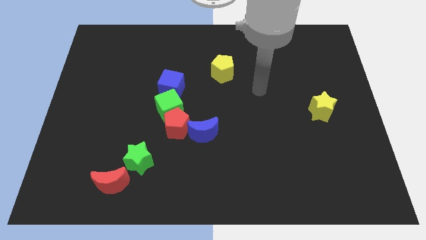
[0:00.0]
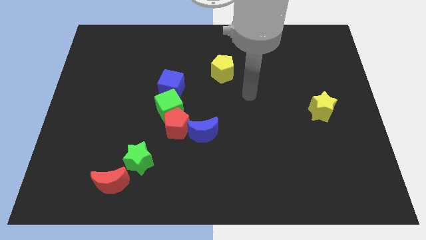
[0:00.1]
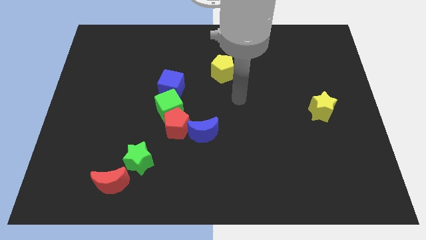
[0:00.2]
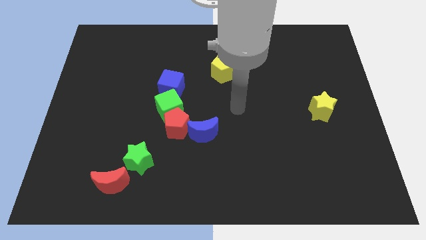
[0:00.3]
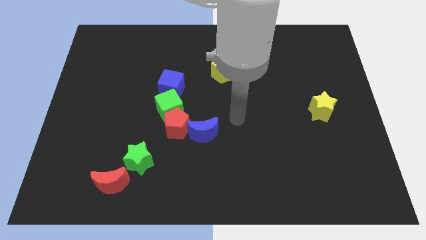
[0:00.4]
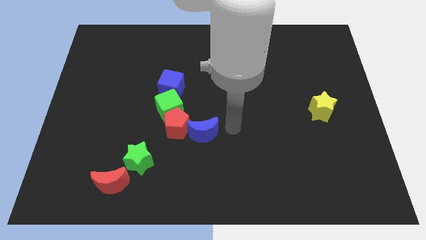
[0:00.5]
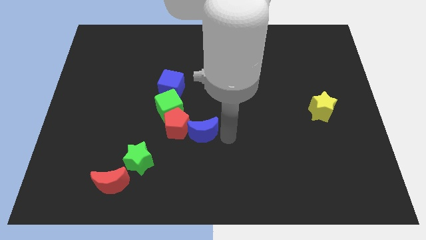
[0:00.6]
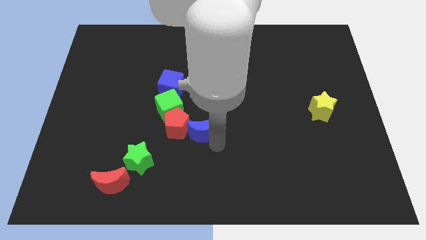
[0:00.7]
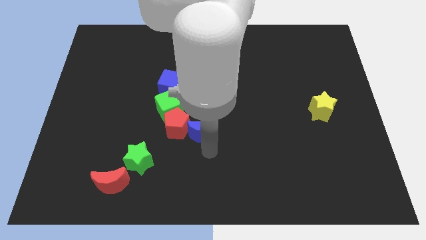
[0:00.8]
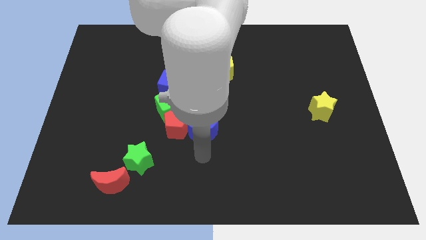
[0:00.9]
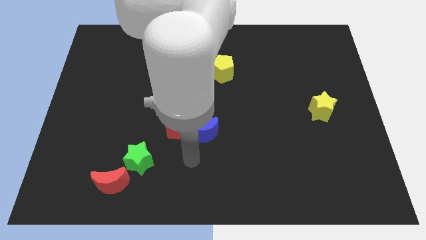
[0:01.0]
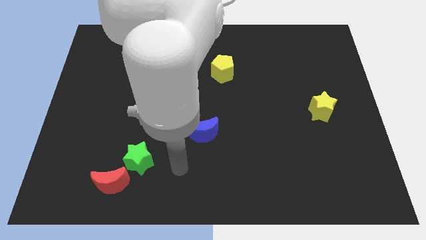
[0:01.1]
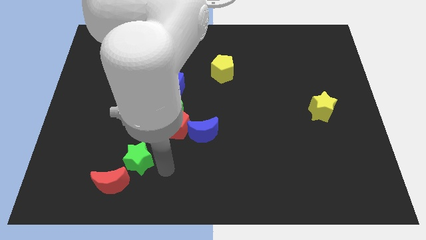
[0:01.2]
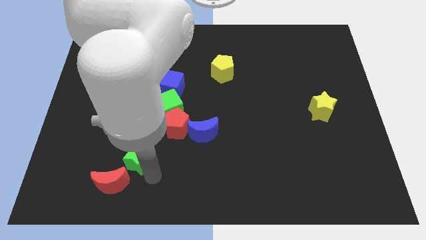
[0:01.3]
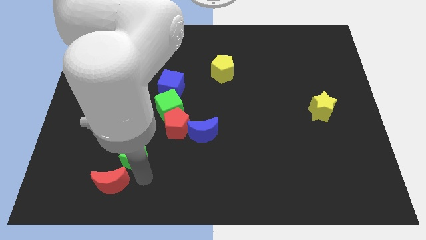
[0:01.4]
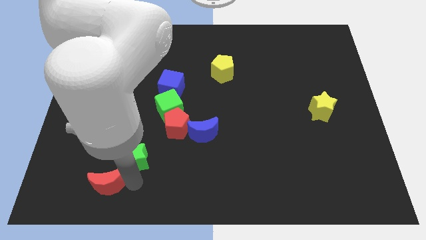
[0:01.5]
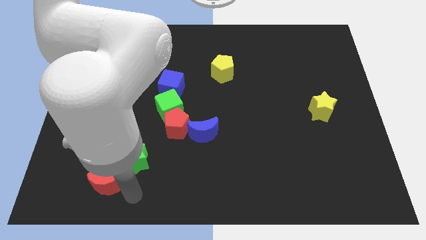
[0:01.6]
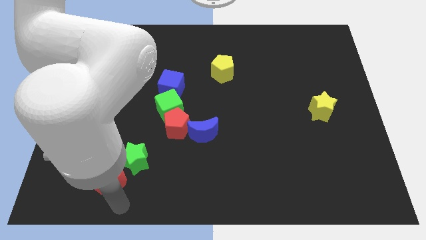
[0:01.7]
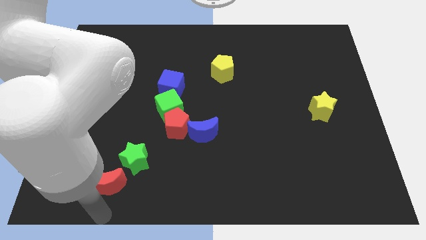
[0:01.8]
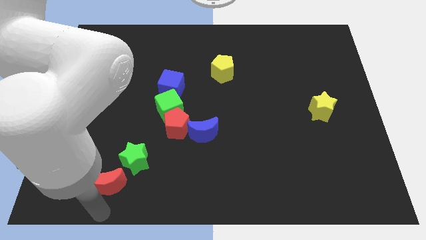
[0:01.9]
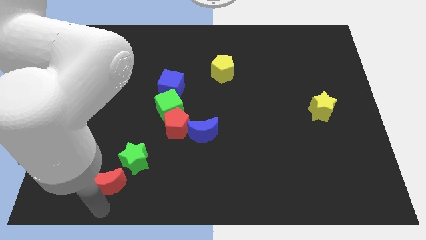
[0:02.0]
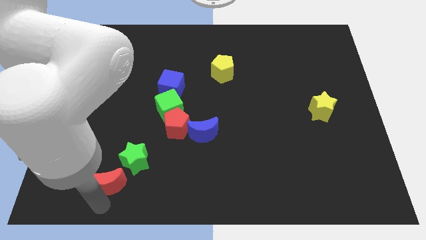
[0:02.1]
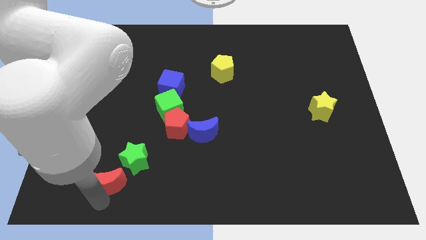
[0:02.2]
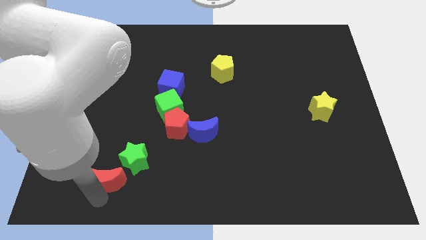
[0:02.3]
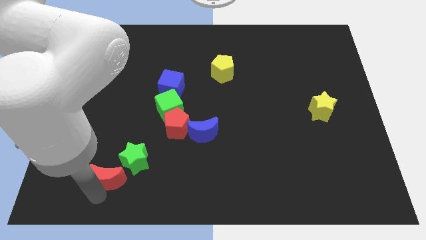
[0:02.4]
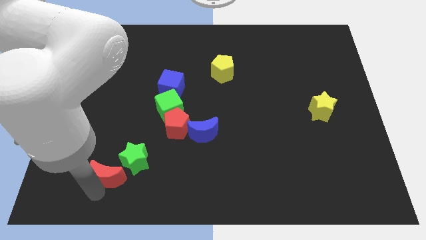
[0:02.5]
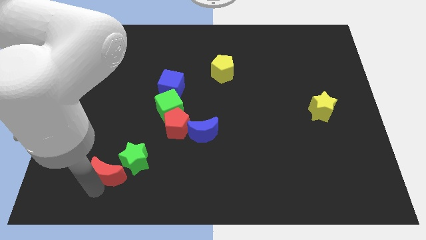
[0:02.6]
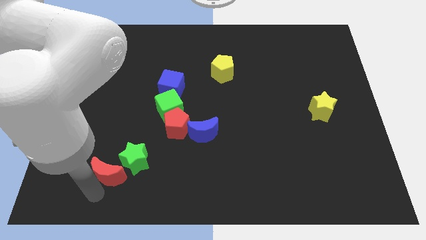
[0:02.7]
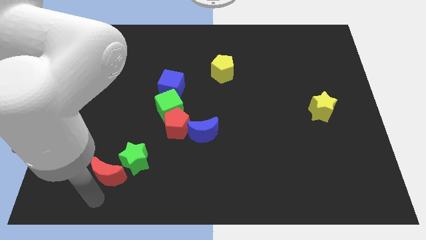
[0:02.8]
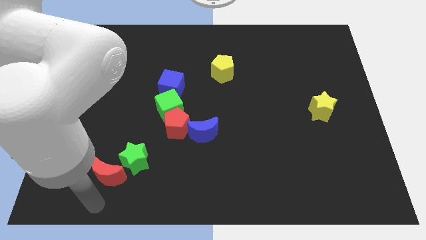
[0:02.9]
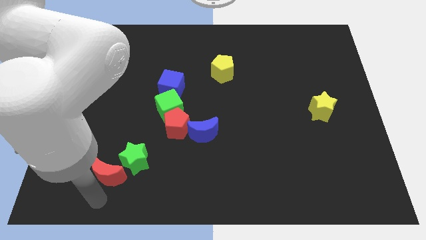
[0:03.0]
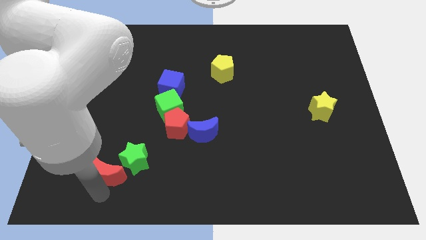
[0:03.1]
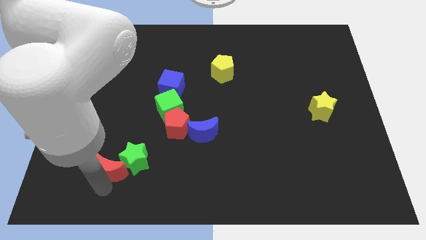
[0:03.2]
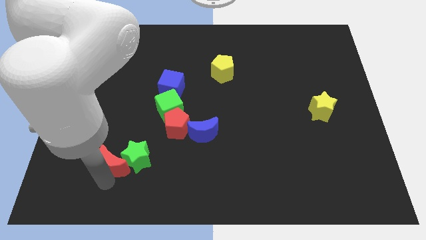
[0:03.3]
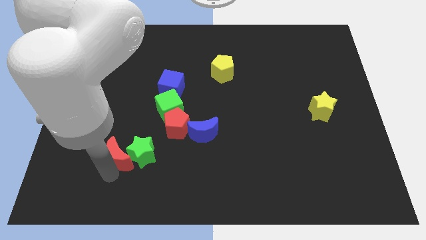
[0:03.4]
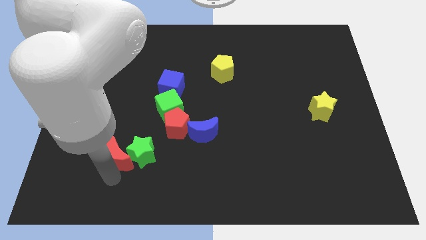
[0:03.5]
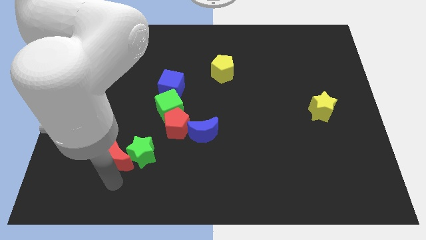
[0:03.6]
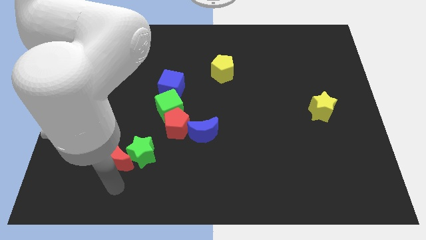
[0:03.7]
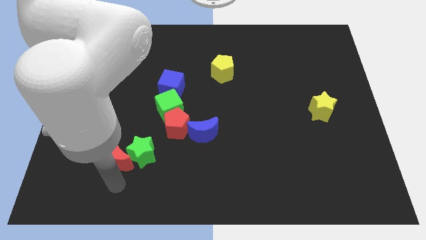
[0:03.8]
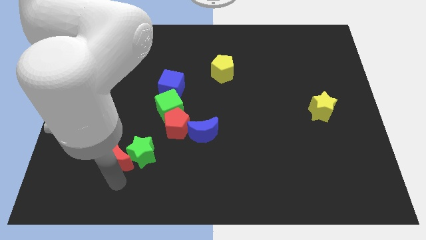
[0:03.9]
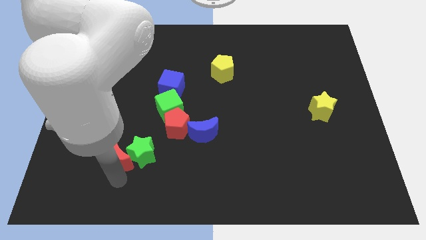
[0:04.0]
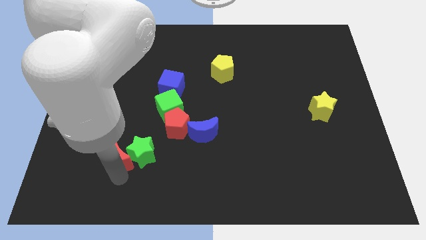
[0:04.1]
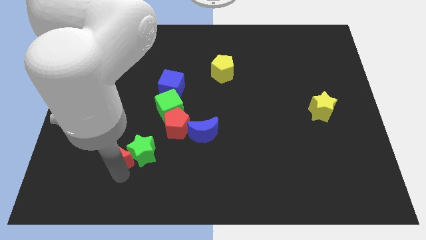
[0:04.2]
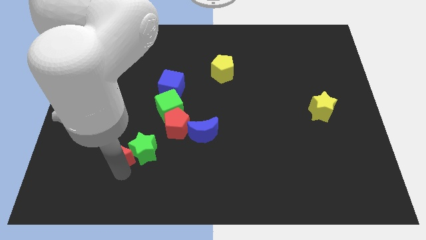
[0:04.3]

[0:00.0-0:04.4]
slightly push the red moon up

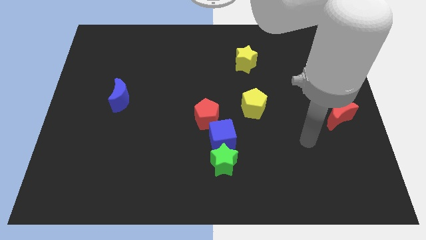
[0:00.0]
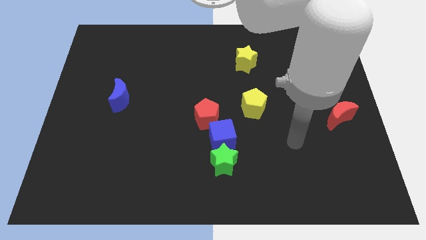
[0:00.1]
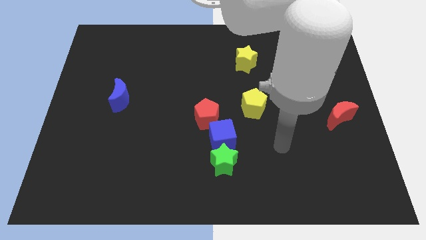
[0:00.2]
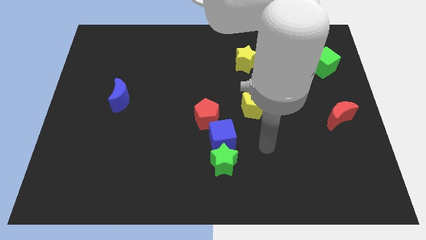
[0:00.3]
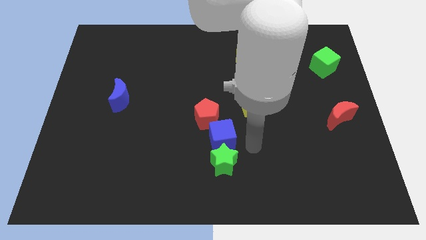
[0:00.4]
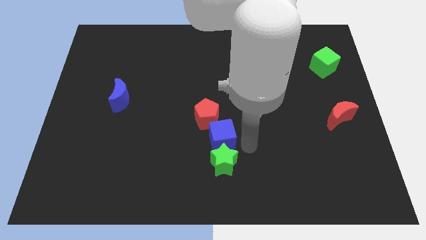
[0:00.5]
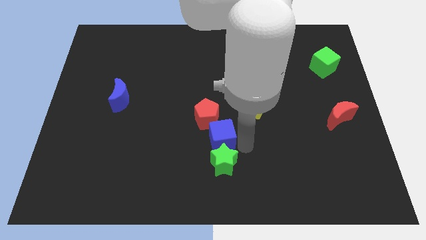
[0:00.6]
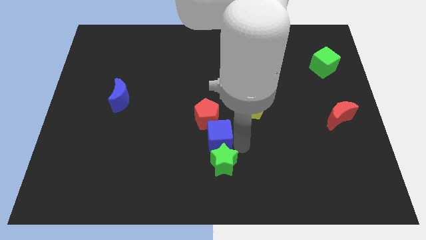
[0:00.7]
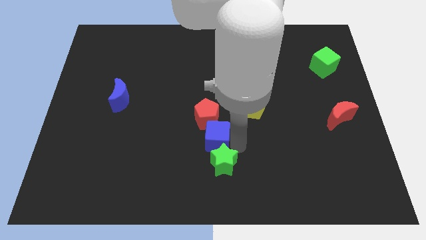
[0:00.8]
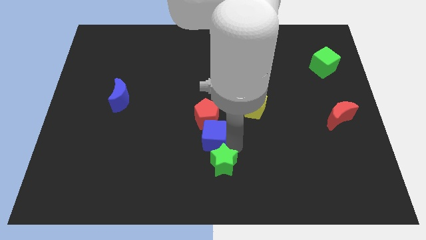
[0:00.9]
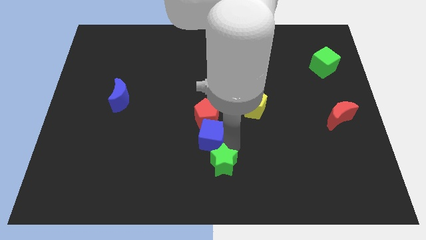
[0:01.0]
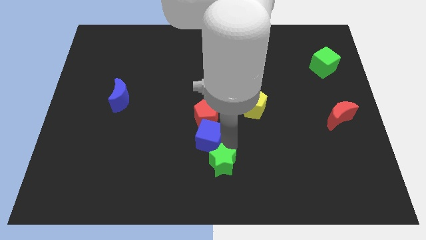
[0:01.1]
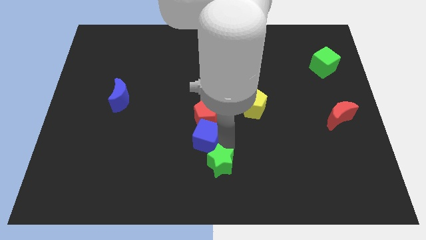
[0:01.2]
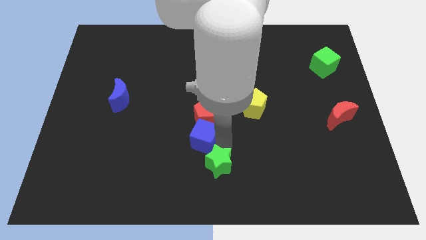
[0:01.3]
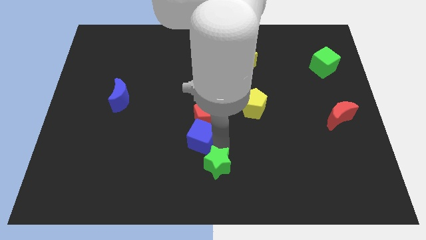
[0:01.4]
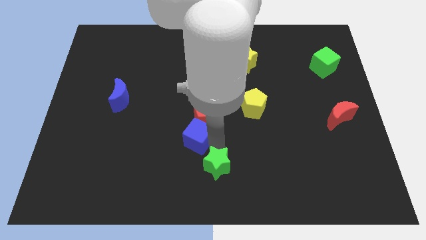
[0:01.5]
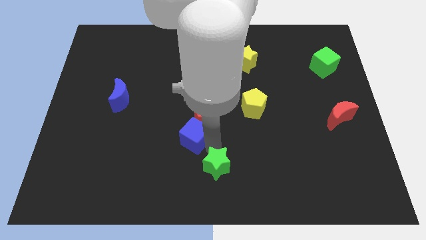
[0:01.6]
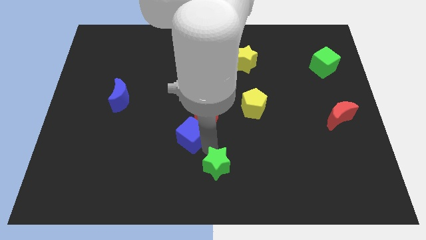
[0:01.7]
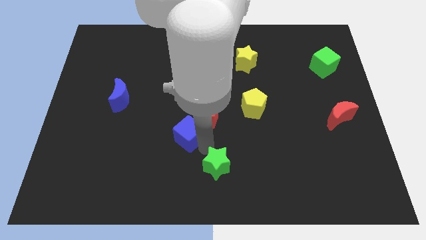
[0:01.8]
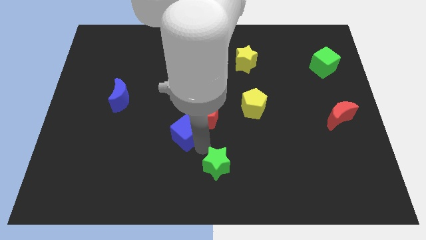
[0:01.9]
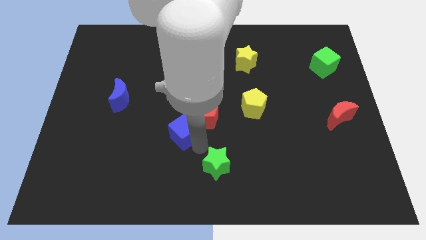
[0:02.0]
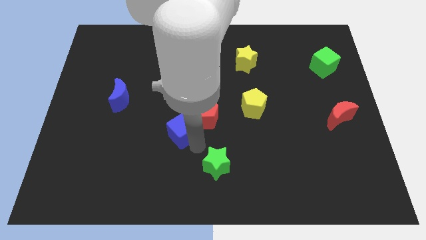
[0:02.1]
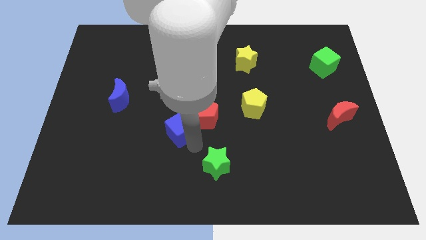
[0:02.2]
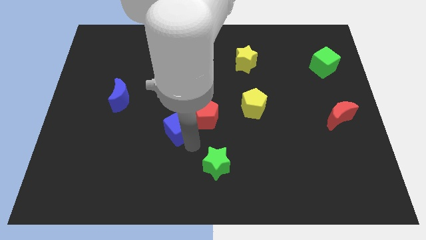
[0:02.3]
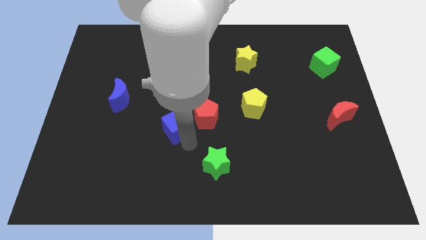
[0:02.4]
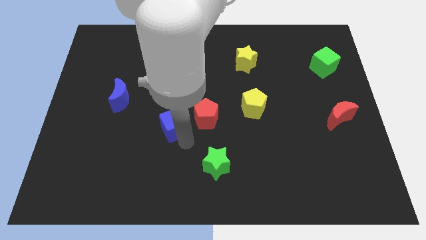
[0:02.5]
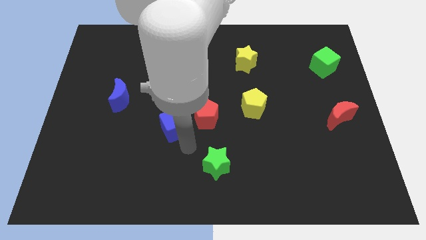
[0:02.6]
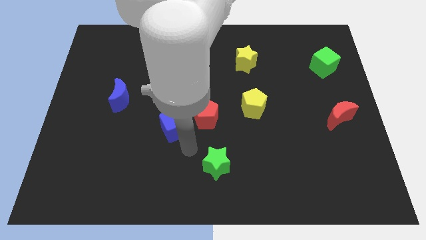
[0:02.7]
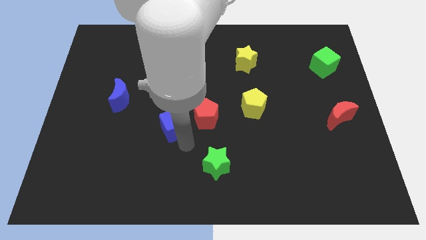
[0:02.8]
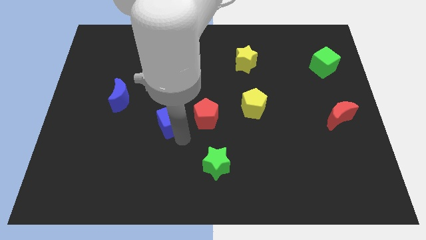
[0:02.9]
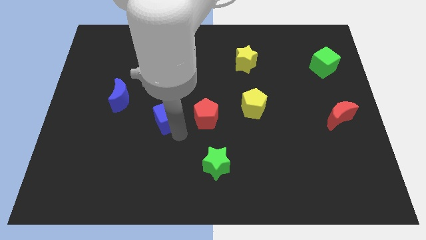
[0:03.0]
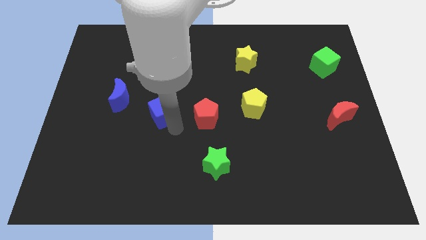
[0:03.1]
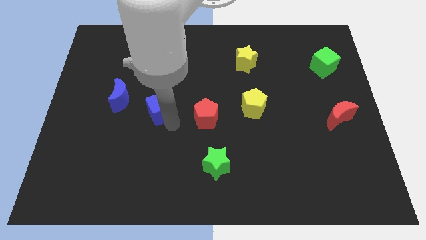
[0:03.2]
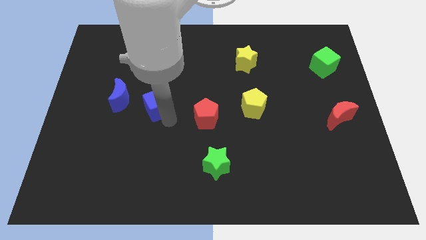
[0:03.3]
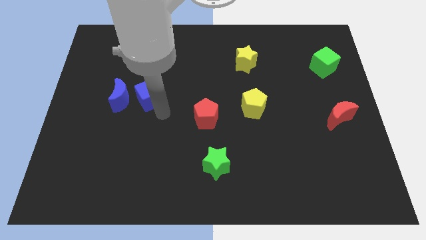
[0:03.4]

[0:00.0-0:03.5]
move the blue cube upwards and to the left
